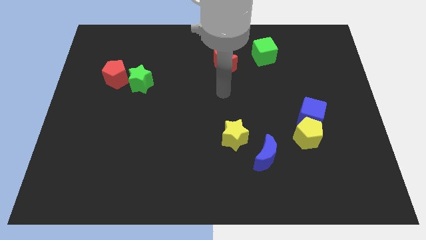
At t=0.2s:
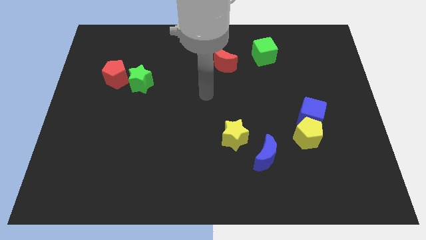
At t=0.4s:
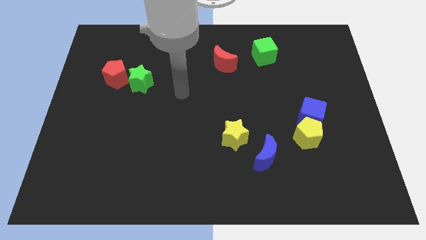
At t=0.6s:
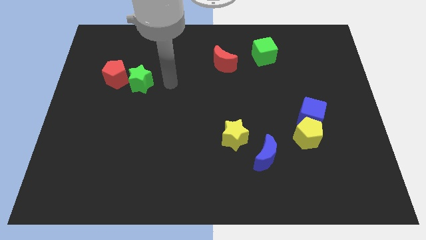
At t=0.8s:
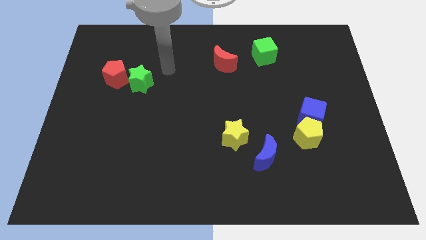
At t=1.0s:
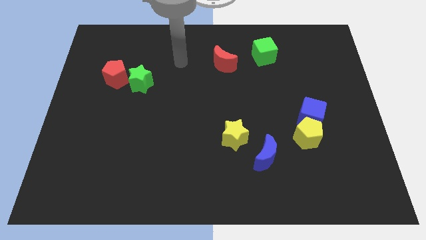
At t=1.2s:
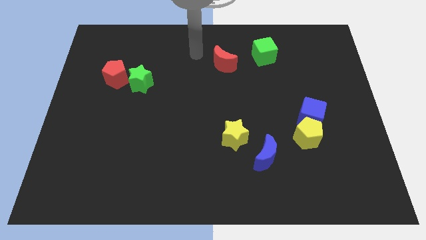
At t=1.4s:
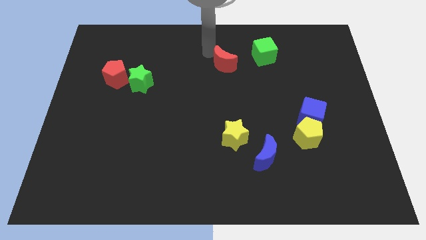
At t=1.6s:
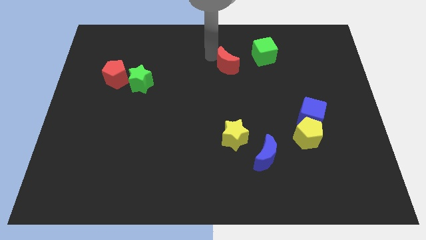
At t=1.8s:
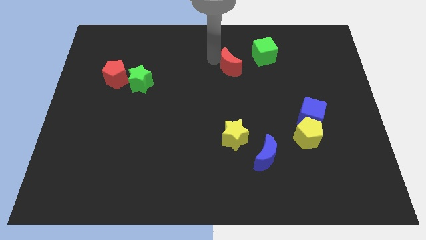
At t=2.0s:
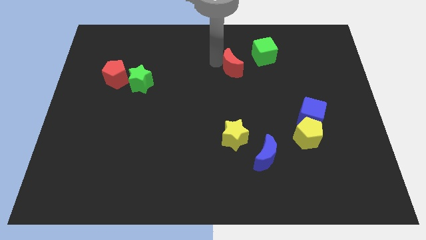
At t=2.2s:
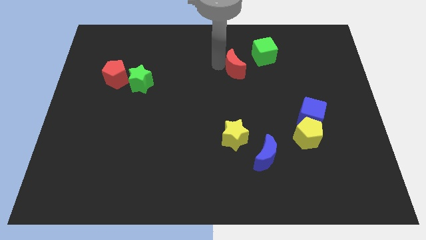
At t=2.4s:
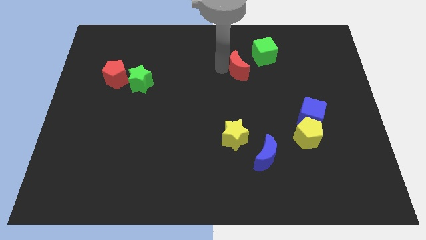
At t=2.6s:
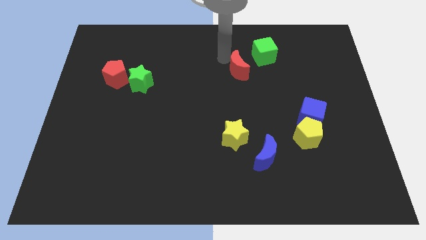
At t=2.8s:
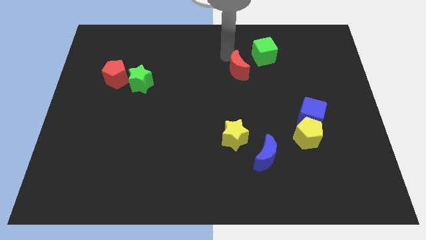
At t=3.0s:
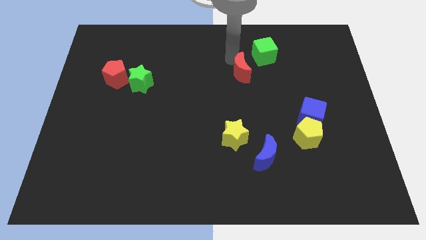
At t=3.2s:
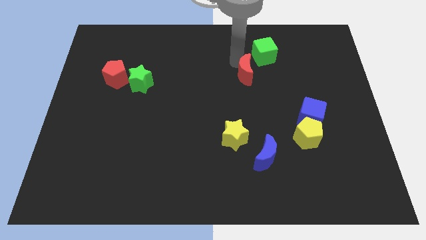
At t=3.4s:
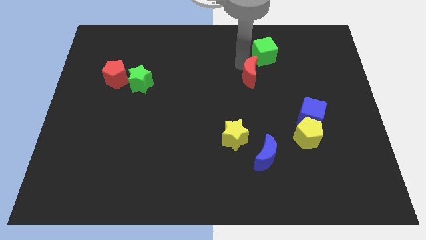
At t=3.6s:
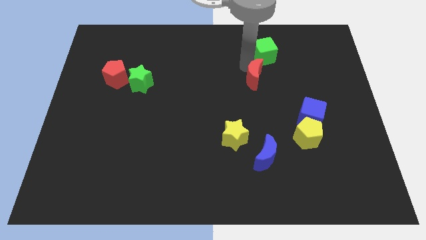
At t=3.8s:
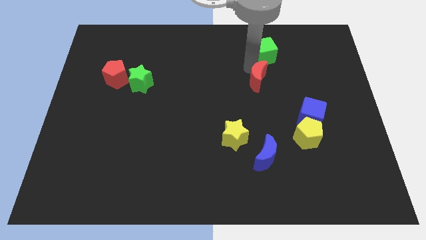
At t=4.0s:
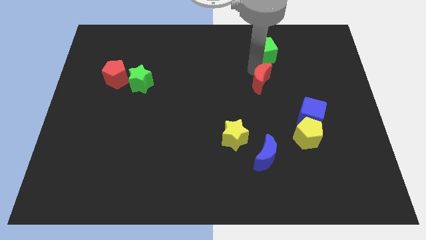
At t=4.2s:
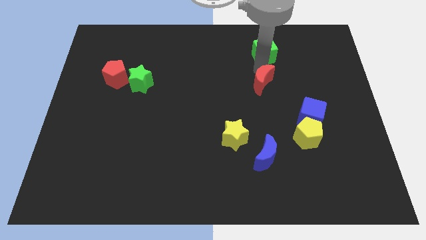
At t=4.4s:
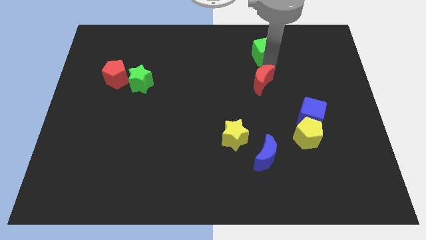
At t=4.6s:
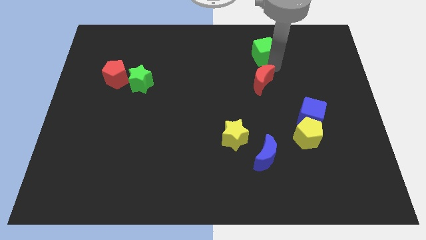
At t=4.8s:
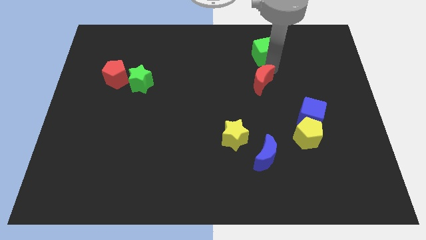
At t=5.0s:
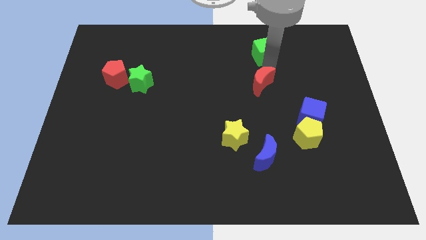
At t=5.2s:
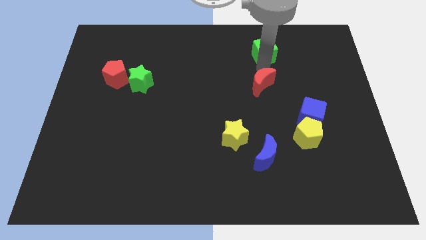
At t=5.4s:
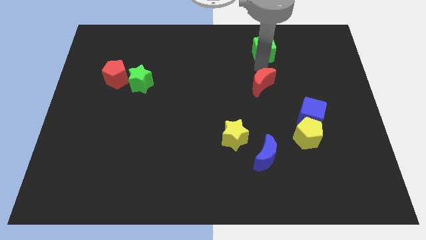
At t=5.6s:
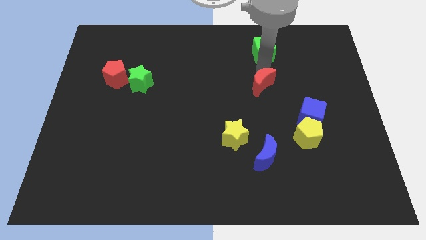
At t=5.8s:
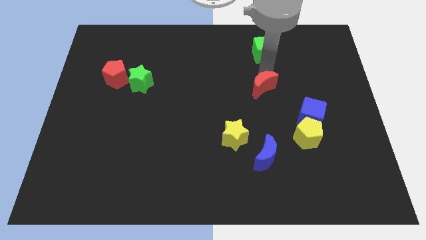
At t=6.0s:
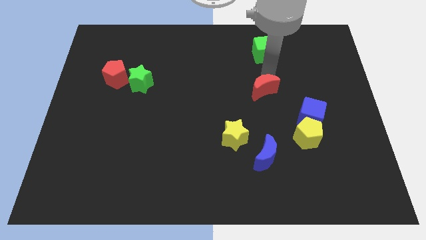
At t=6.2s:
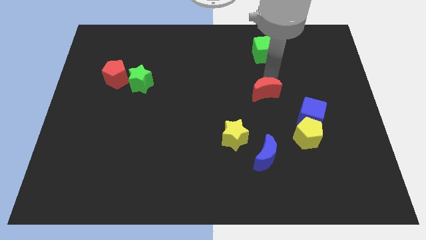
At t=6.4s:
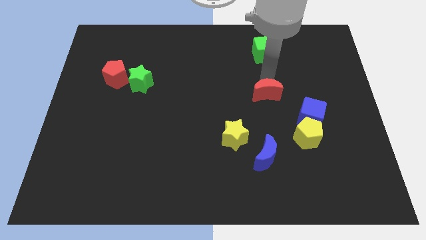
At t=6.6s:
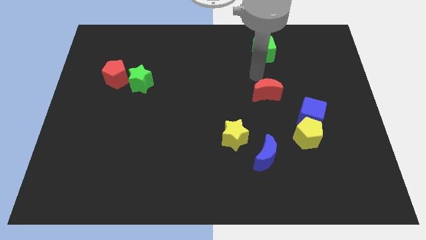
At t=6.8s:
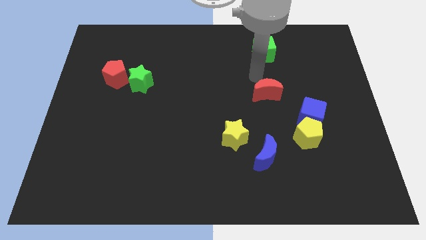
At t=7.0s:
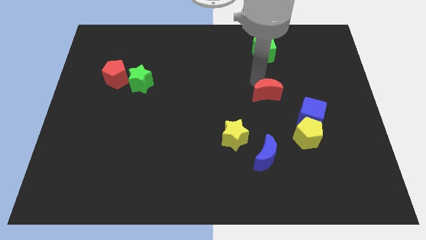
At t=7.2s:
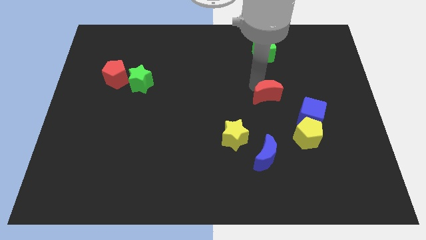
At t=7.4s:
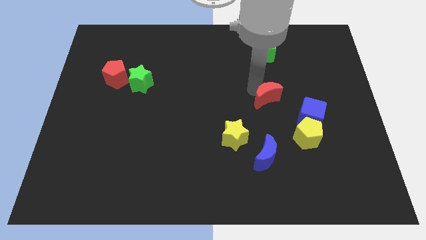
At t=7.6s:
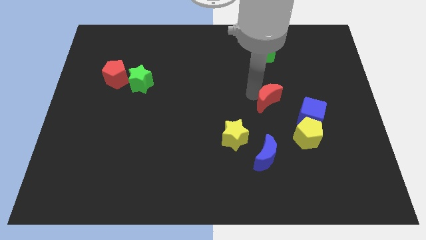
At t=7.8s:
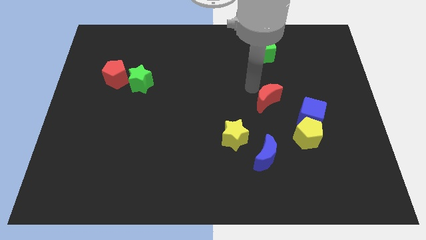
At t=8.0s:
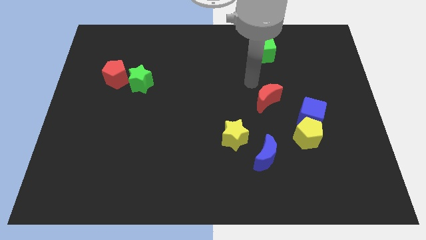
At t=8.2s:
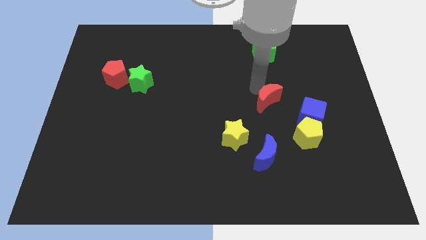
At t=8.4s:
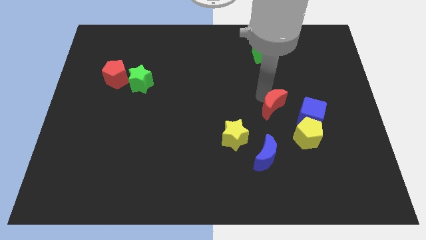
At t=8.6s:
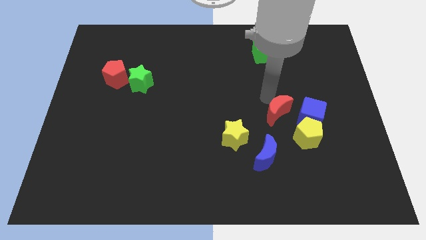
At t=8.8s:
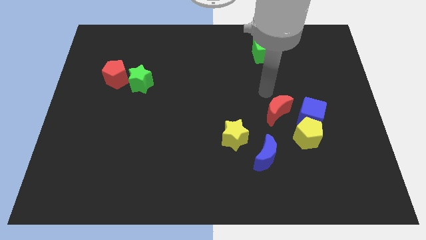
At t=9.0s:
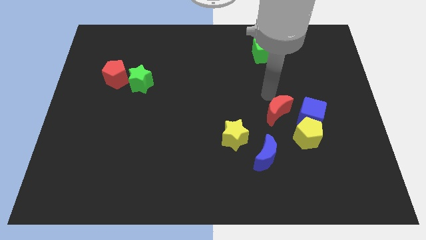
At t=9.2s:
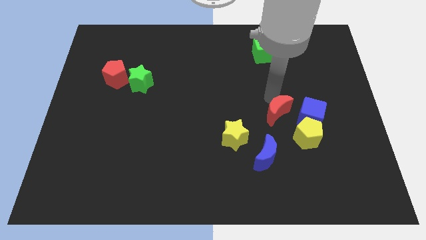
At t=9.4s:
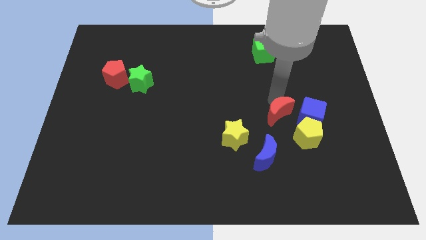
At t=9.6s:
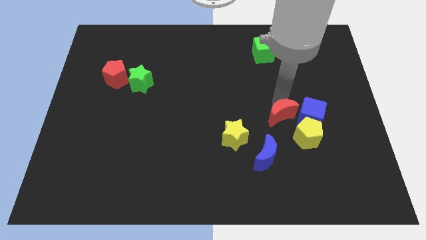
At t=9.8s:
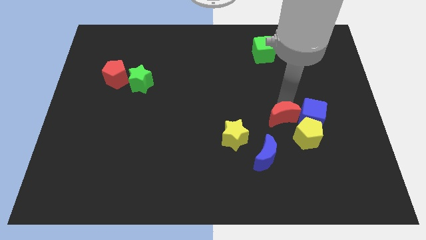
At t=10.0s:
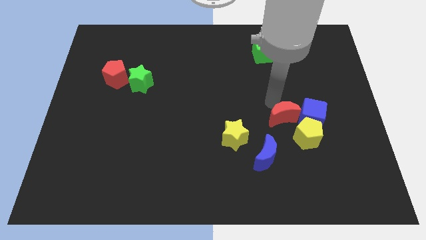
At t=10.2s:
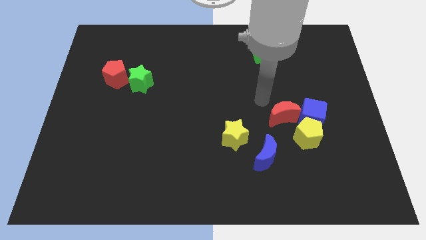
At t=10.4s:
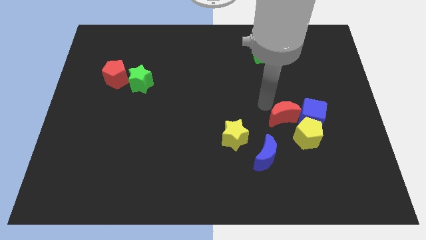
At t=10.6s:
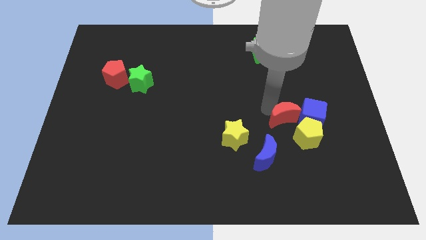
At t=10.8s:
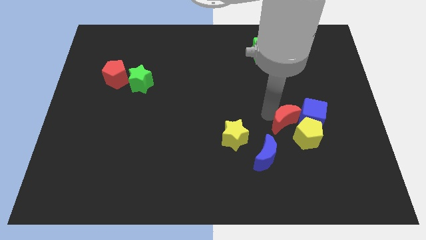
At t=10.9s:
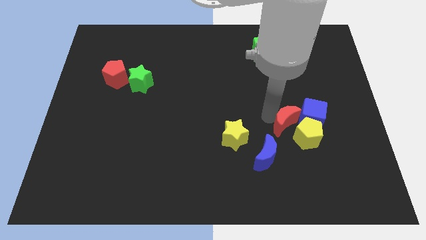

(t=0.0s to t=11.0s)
move the red moon next to the yellow pentagon

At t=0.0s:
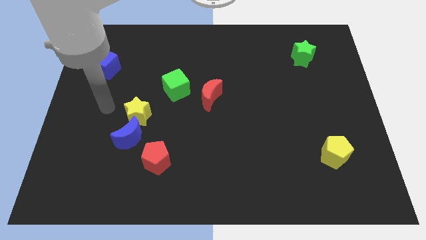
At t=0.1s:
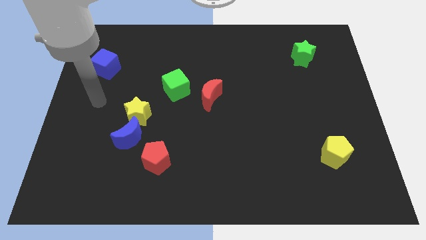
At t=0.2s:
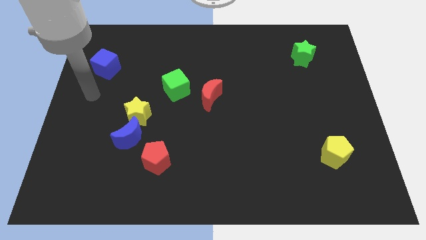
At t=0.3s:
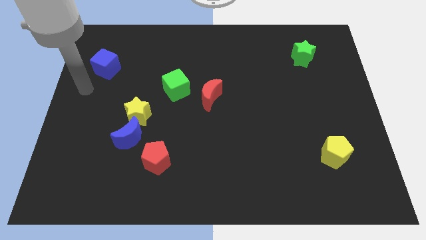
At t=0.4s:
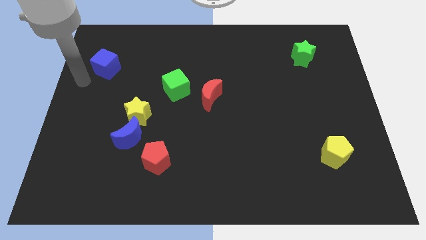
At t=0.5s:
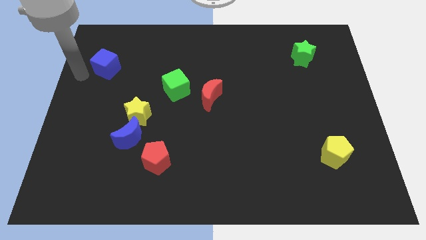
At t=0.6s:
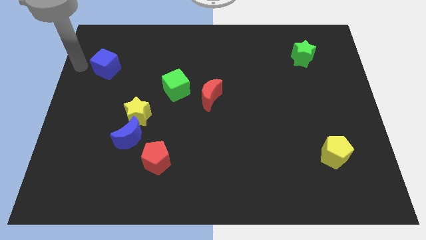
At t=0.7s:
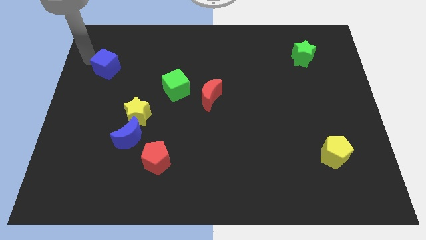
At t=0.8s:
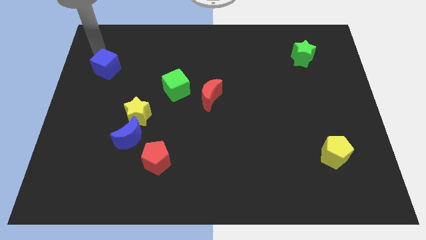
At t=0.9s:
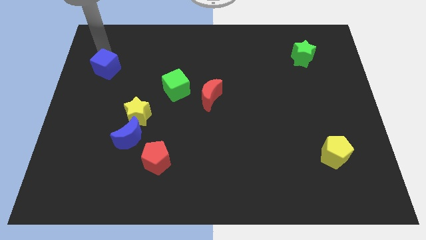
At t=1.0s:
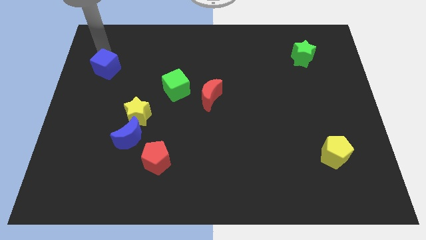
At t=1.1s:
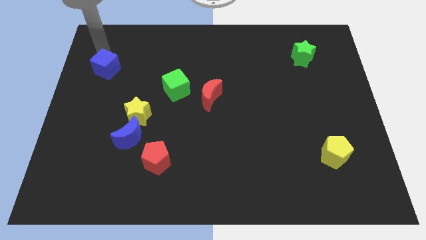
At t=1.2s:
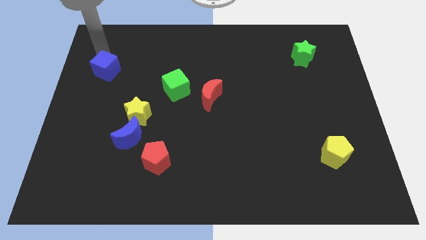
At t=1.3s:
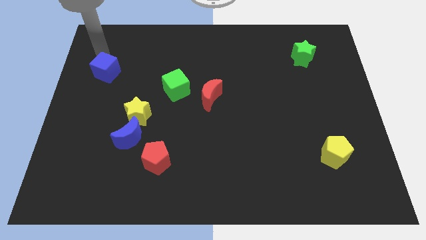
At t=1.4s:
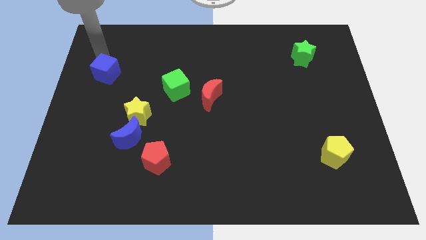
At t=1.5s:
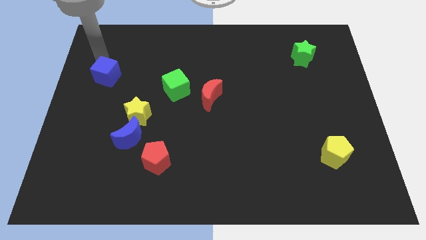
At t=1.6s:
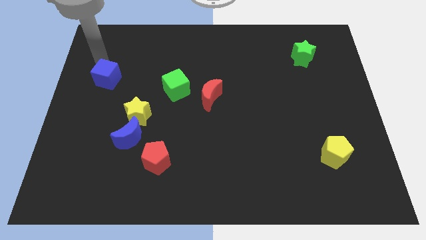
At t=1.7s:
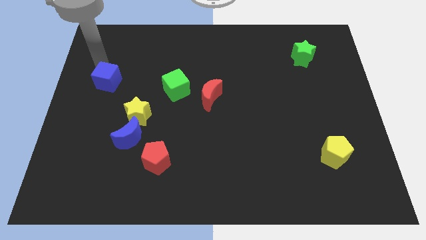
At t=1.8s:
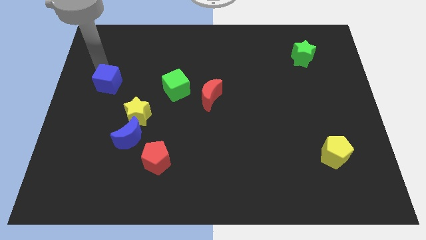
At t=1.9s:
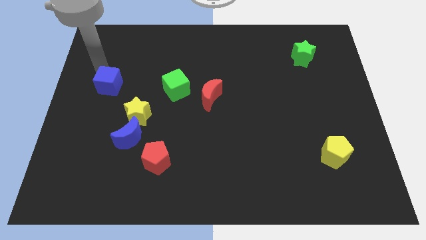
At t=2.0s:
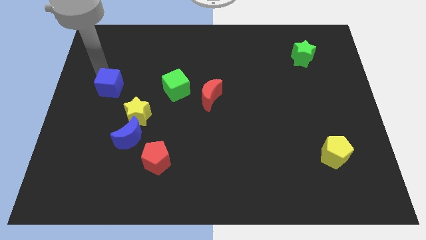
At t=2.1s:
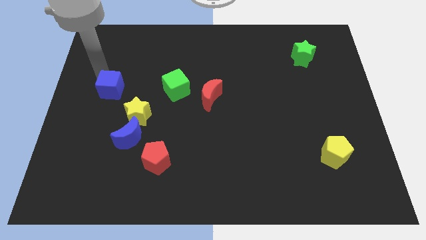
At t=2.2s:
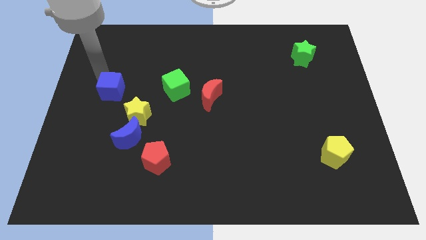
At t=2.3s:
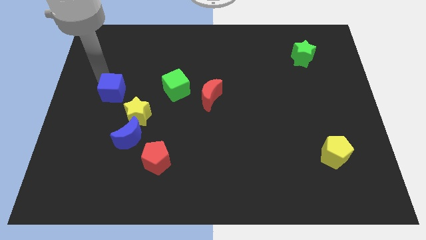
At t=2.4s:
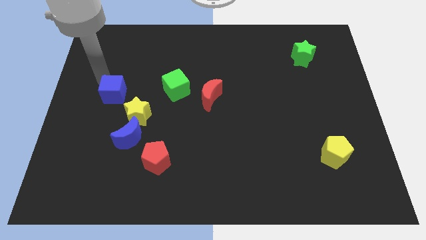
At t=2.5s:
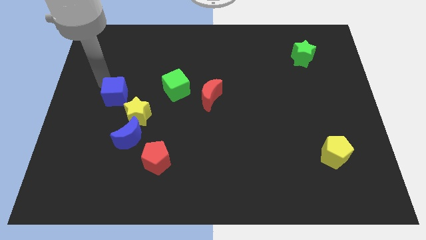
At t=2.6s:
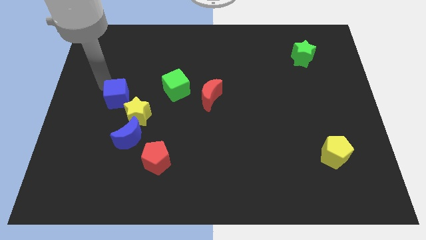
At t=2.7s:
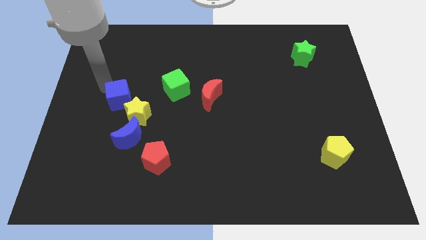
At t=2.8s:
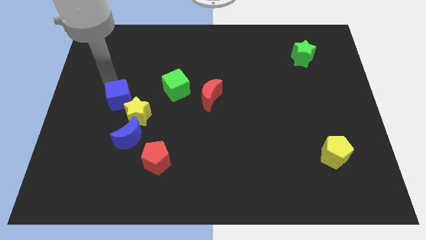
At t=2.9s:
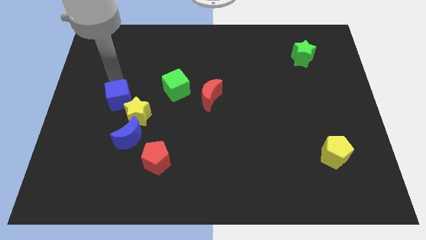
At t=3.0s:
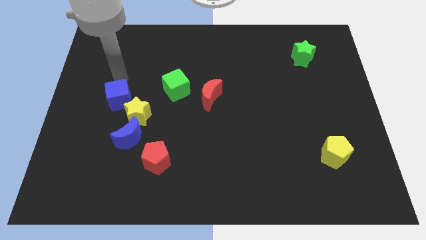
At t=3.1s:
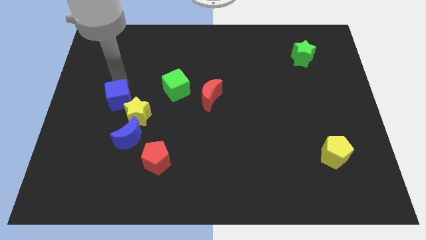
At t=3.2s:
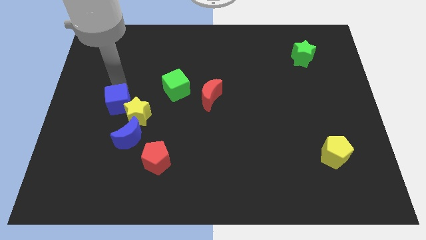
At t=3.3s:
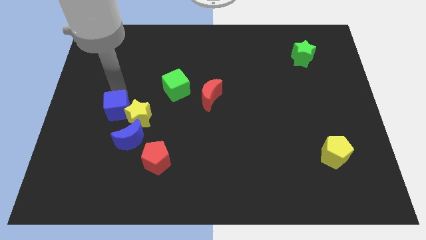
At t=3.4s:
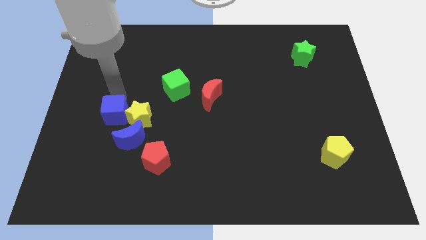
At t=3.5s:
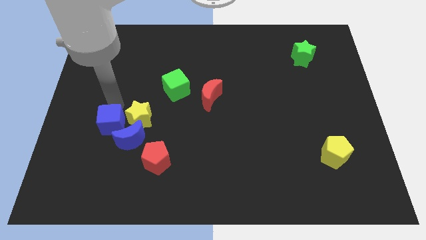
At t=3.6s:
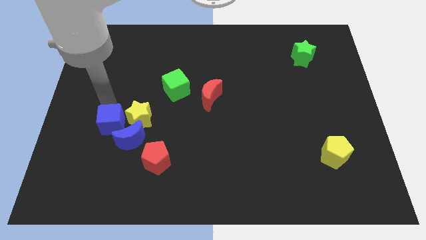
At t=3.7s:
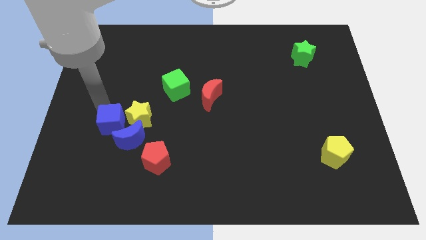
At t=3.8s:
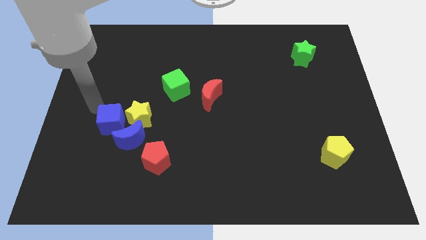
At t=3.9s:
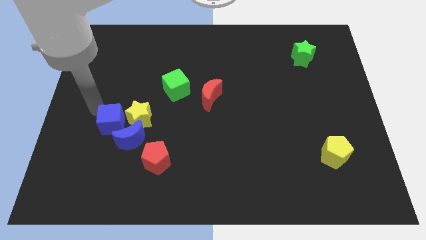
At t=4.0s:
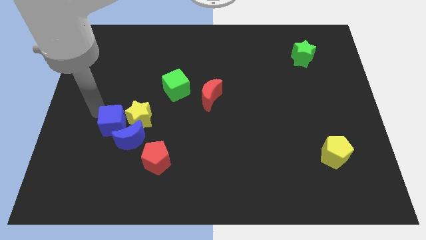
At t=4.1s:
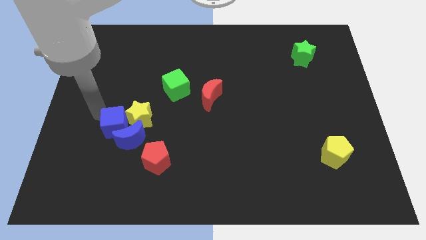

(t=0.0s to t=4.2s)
slide the blue cube close to the blue moon
